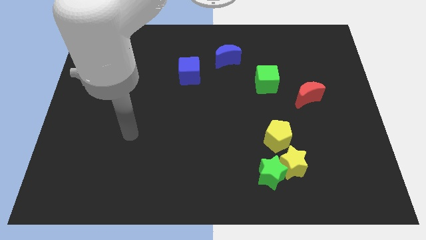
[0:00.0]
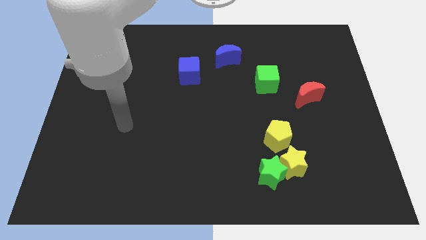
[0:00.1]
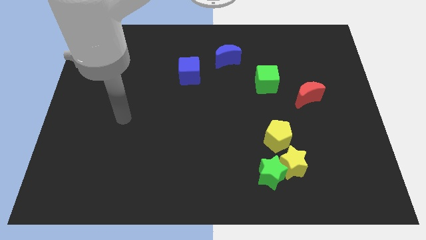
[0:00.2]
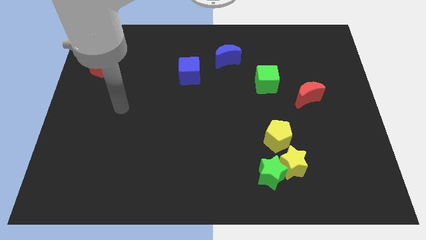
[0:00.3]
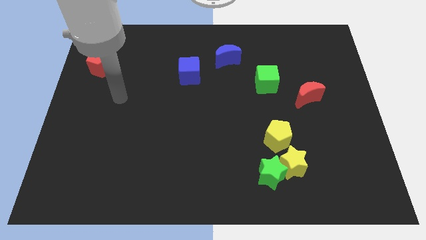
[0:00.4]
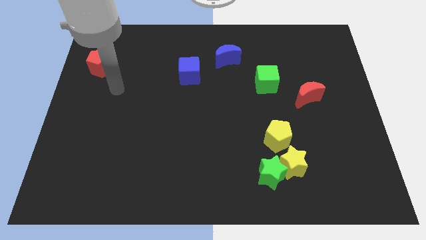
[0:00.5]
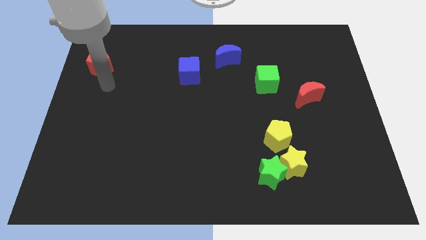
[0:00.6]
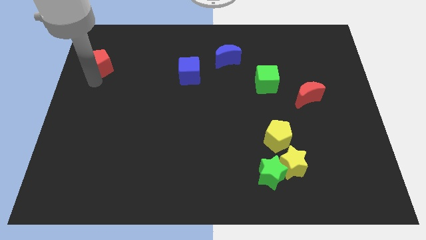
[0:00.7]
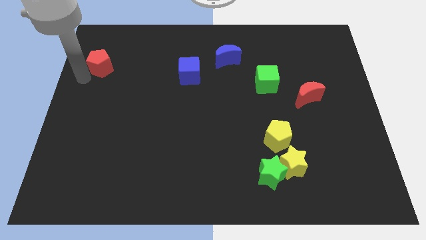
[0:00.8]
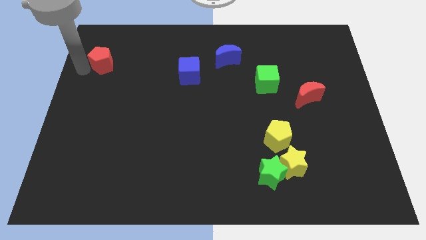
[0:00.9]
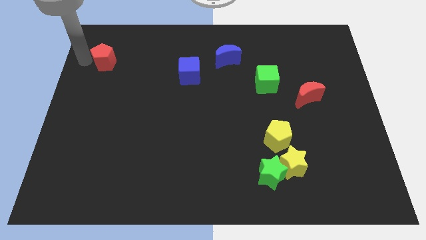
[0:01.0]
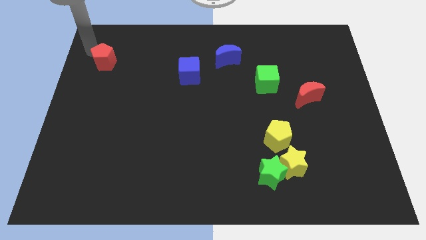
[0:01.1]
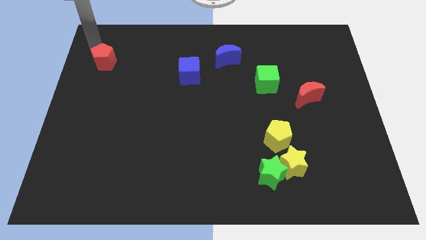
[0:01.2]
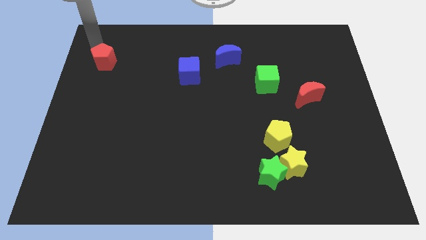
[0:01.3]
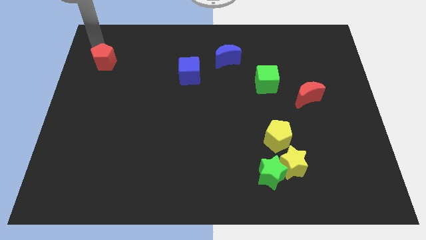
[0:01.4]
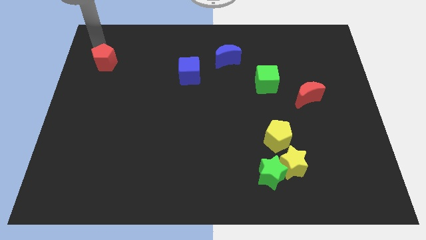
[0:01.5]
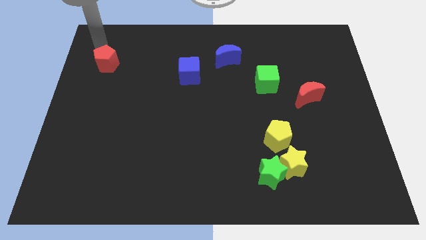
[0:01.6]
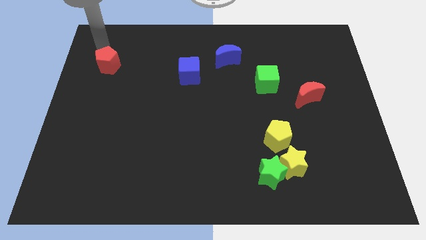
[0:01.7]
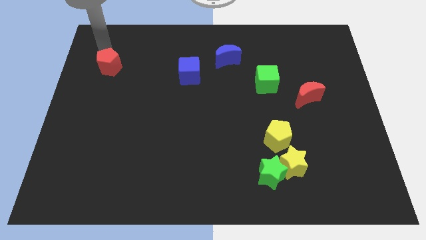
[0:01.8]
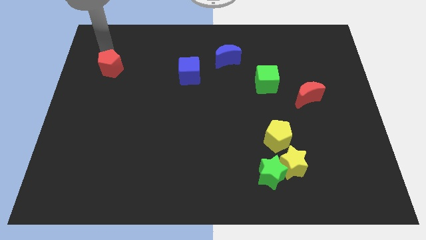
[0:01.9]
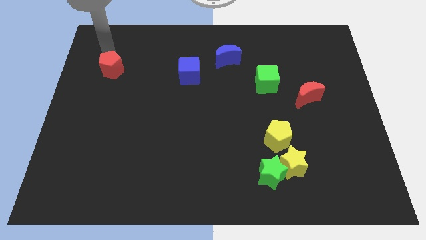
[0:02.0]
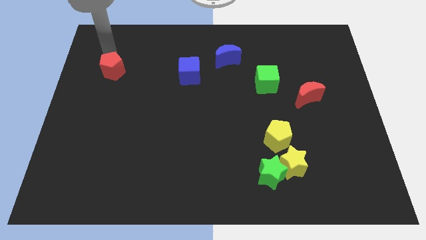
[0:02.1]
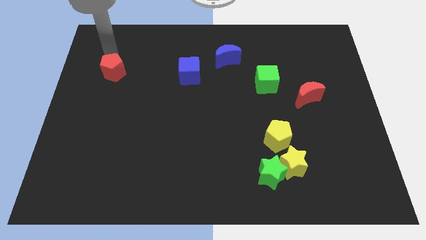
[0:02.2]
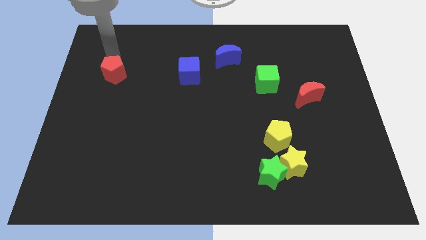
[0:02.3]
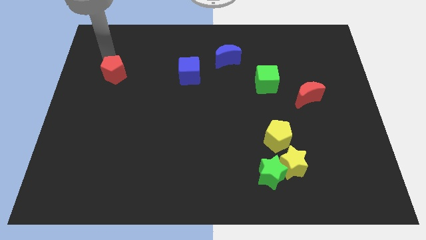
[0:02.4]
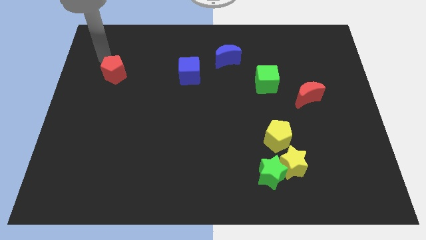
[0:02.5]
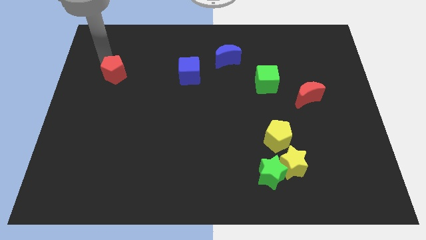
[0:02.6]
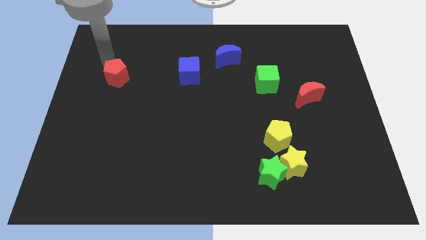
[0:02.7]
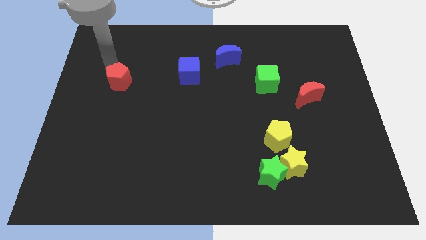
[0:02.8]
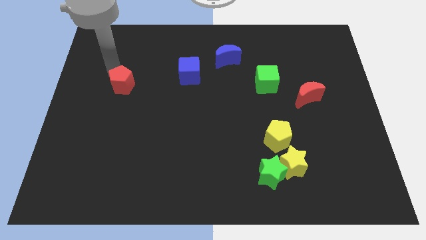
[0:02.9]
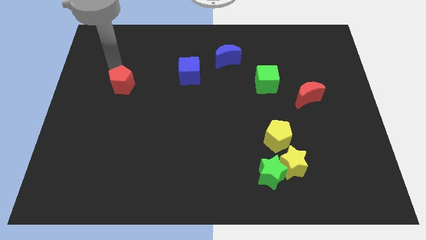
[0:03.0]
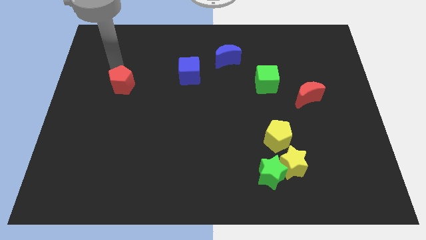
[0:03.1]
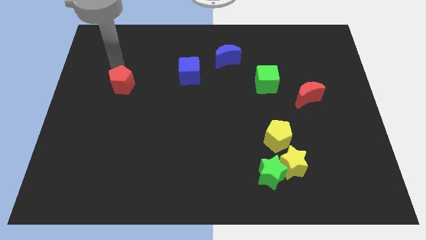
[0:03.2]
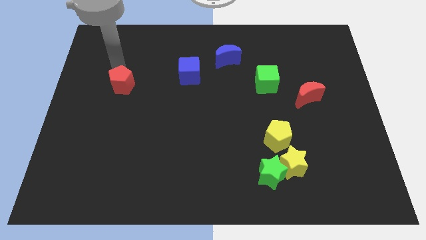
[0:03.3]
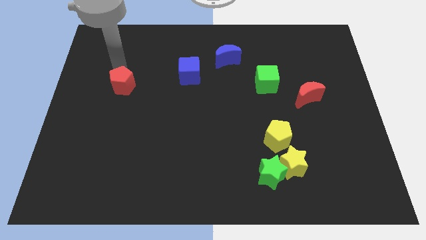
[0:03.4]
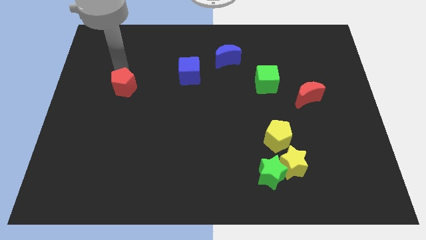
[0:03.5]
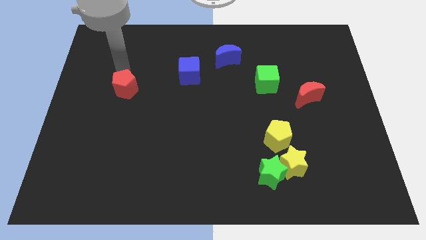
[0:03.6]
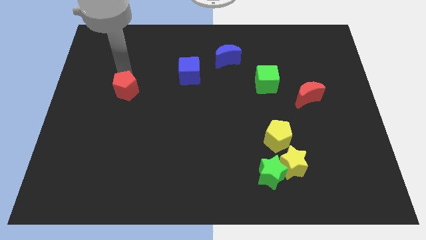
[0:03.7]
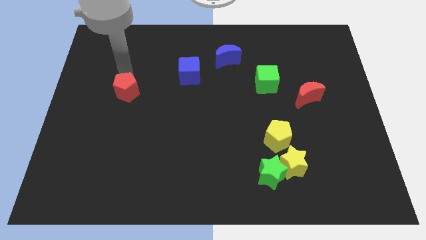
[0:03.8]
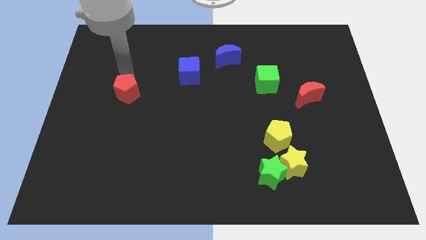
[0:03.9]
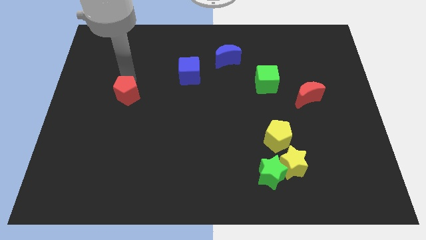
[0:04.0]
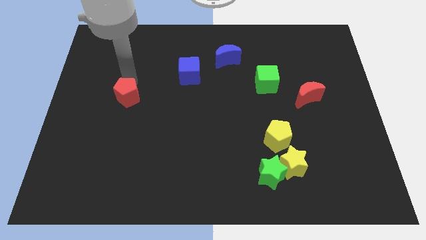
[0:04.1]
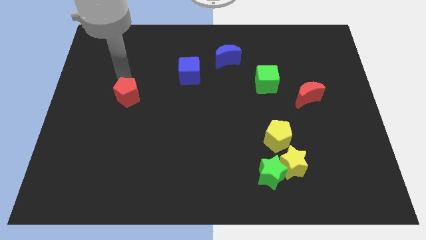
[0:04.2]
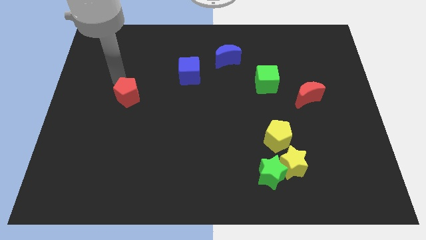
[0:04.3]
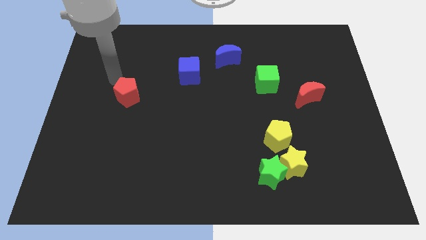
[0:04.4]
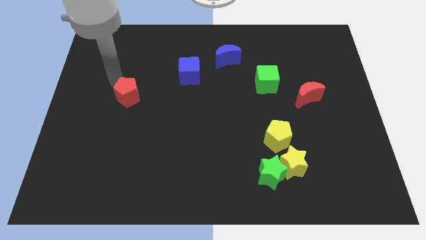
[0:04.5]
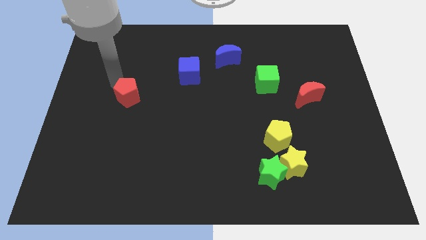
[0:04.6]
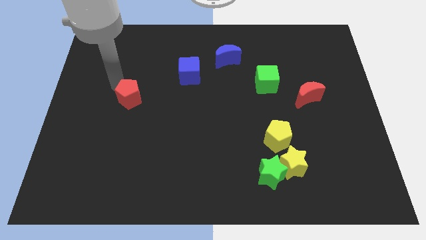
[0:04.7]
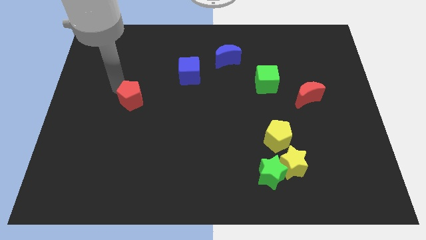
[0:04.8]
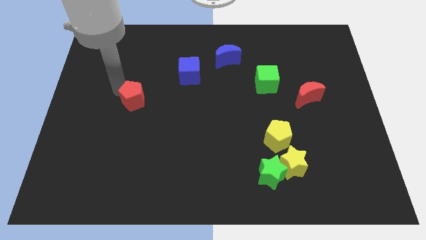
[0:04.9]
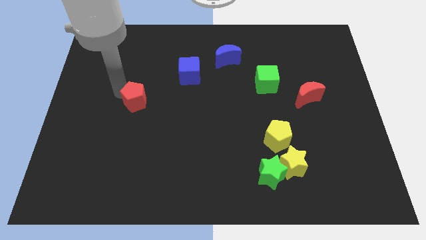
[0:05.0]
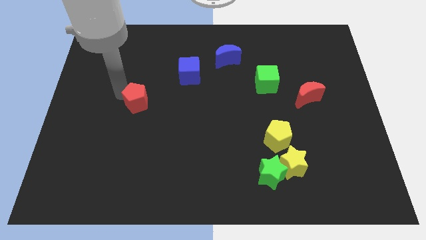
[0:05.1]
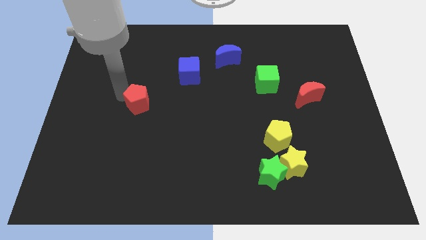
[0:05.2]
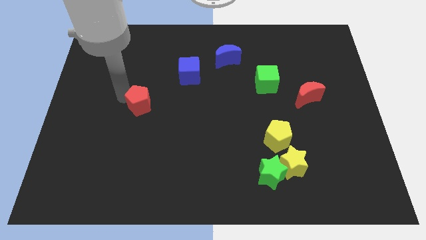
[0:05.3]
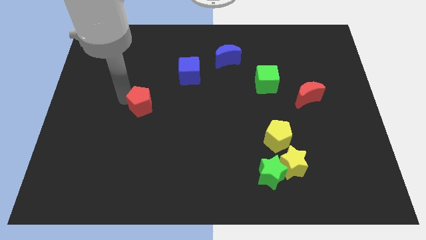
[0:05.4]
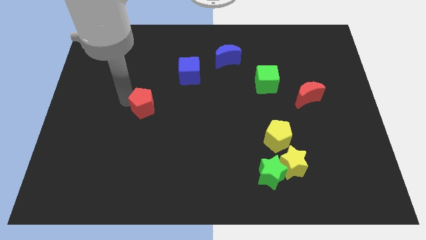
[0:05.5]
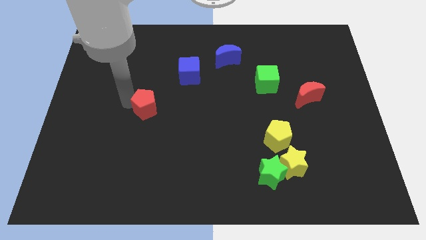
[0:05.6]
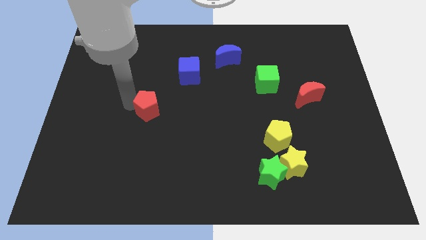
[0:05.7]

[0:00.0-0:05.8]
move the red pentagon down and to the right diagonally

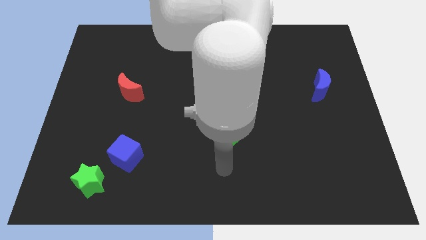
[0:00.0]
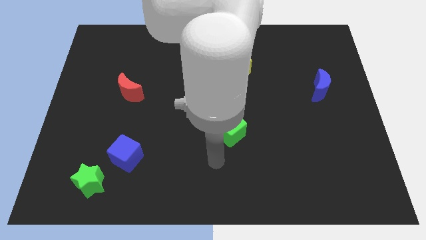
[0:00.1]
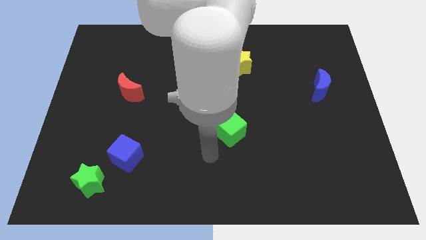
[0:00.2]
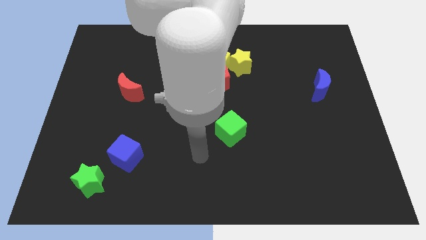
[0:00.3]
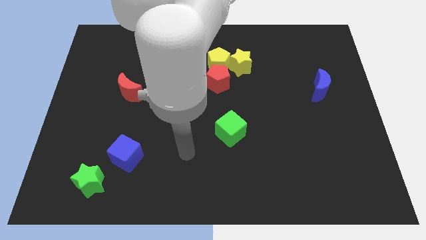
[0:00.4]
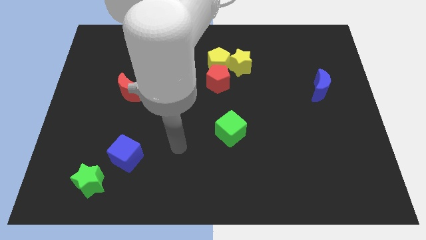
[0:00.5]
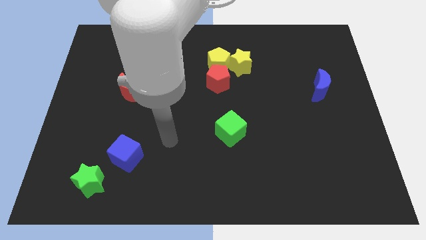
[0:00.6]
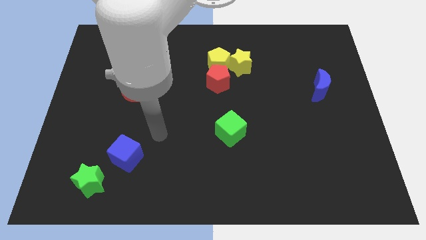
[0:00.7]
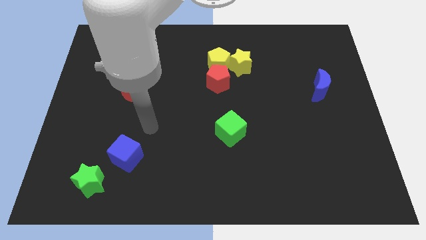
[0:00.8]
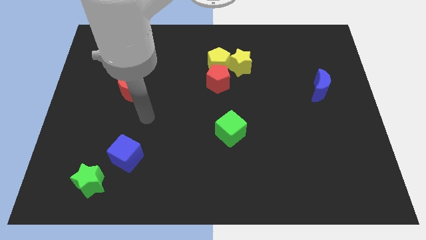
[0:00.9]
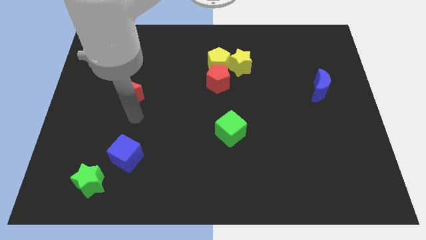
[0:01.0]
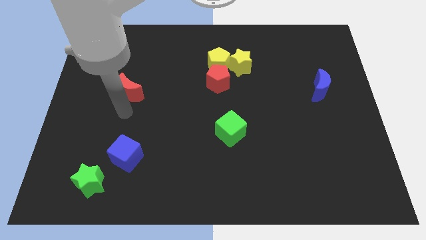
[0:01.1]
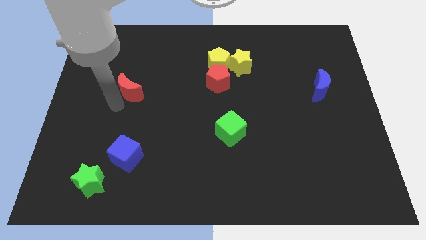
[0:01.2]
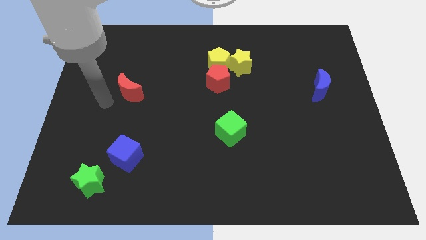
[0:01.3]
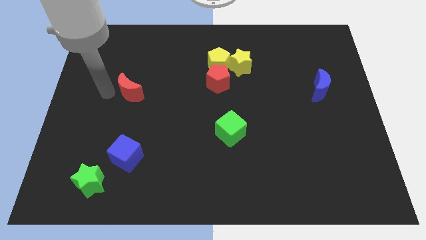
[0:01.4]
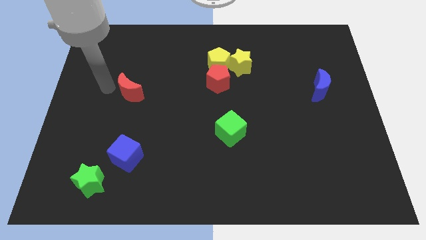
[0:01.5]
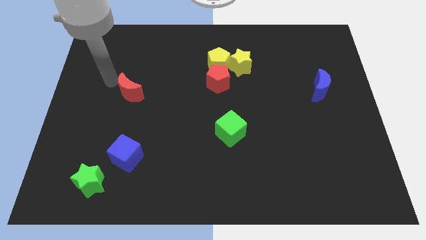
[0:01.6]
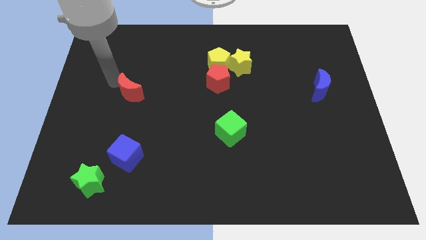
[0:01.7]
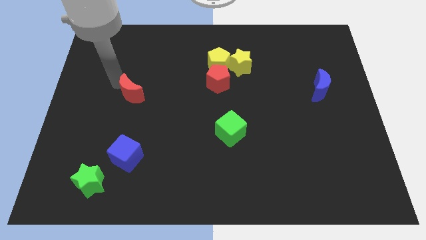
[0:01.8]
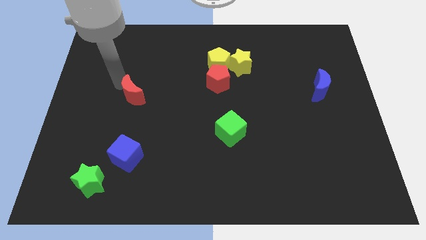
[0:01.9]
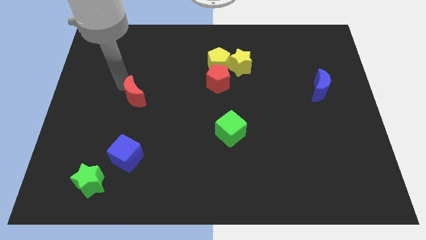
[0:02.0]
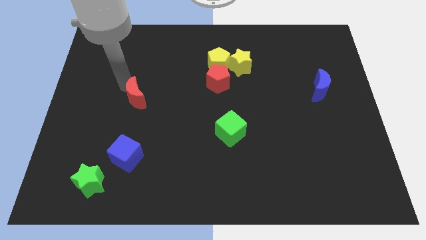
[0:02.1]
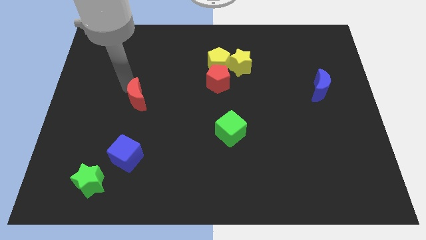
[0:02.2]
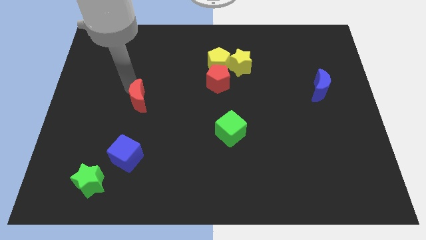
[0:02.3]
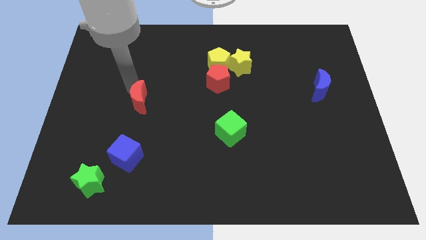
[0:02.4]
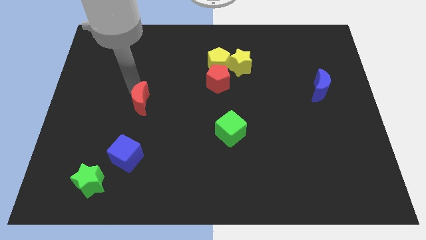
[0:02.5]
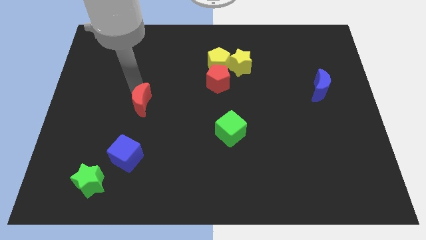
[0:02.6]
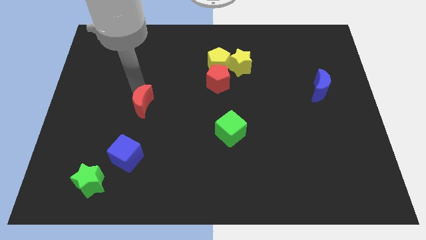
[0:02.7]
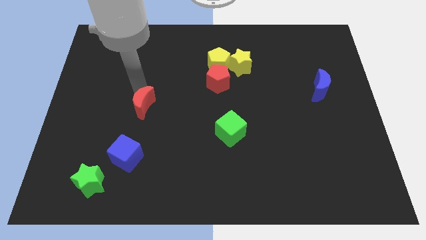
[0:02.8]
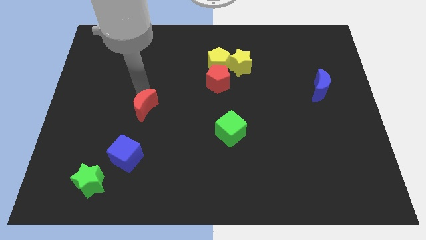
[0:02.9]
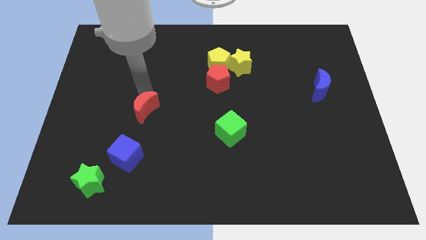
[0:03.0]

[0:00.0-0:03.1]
slide the red moon somewhat down and then right
